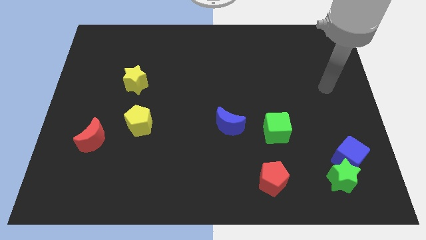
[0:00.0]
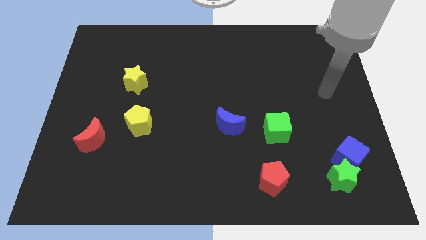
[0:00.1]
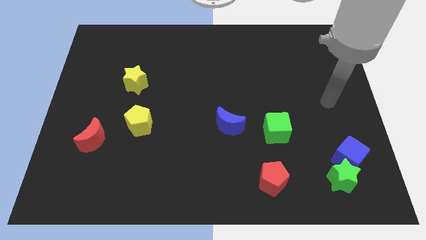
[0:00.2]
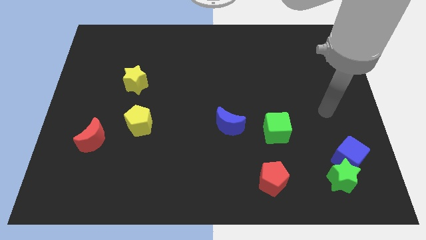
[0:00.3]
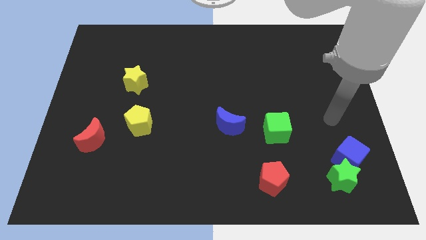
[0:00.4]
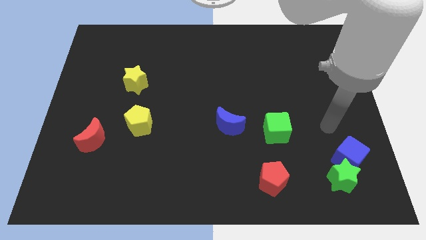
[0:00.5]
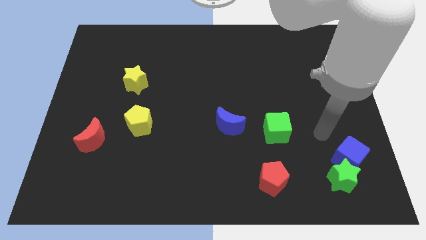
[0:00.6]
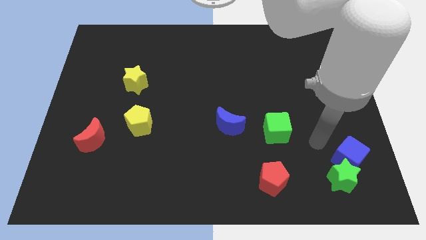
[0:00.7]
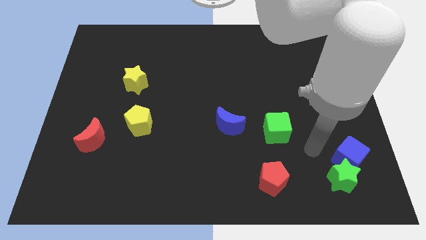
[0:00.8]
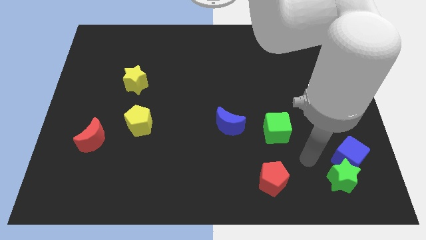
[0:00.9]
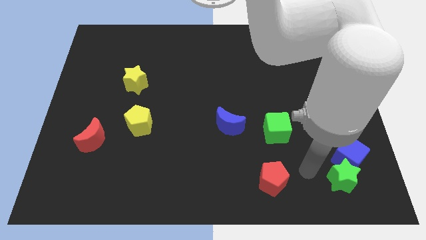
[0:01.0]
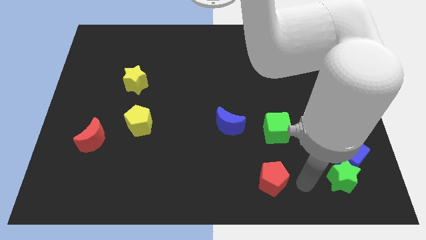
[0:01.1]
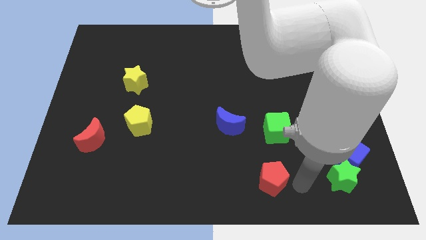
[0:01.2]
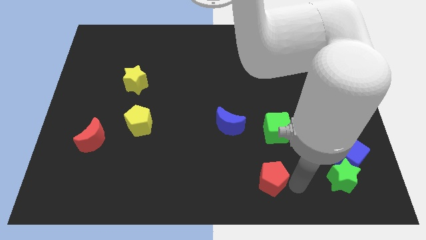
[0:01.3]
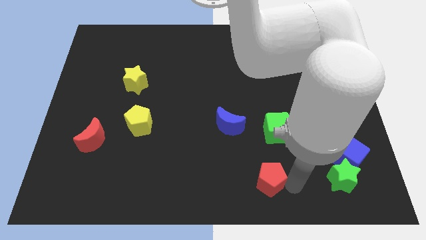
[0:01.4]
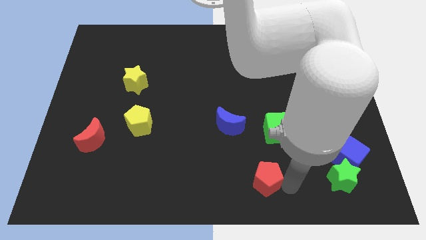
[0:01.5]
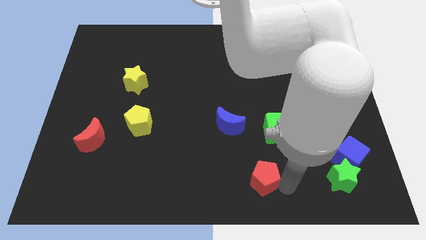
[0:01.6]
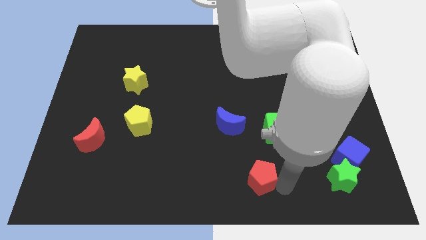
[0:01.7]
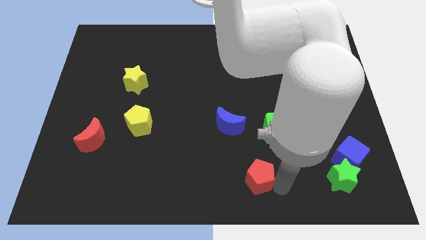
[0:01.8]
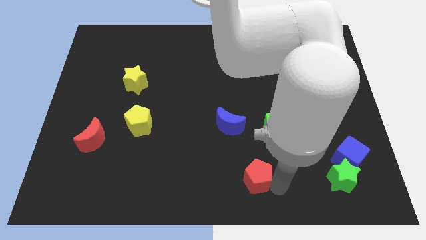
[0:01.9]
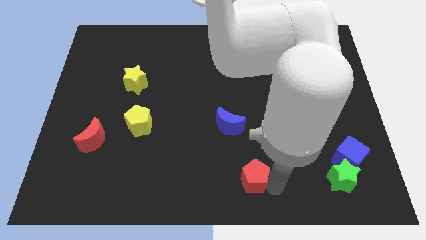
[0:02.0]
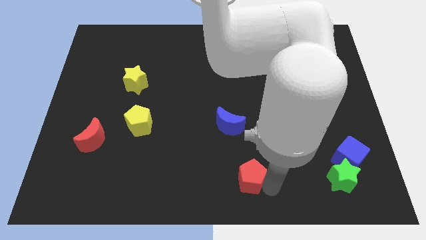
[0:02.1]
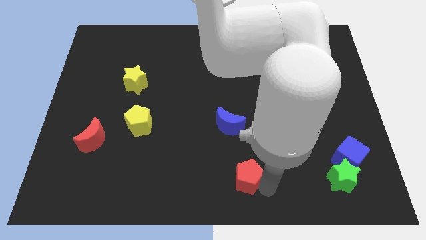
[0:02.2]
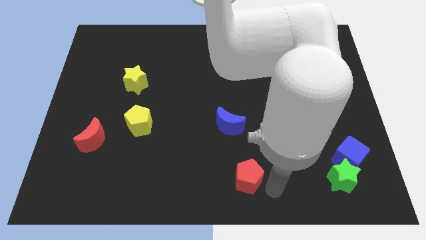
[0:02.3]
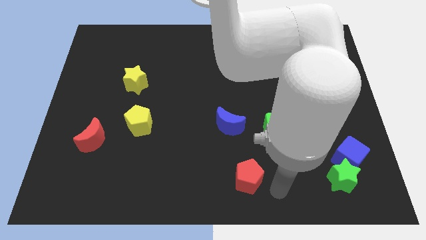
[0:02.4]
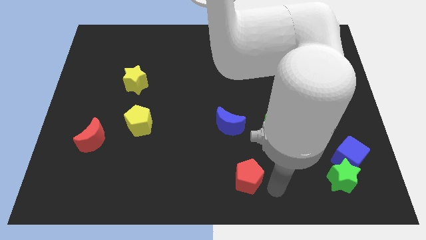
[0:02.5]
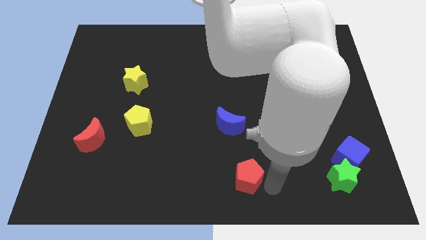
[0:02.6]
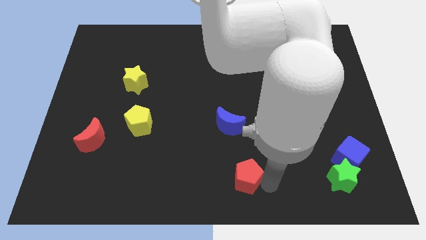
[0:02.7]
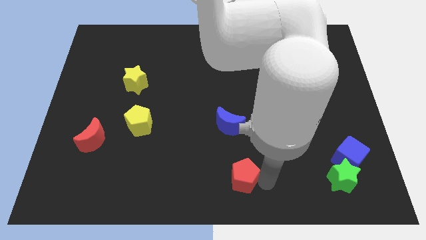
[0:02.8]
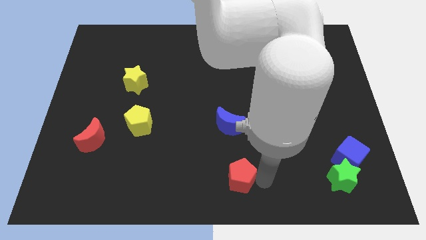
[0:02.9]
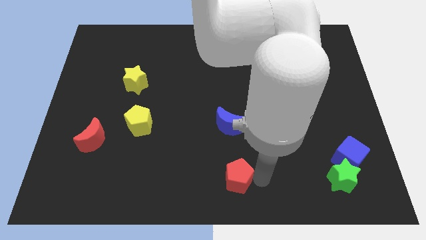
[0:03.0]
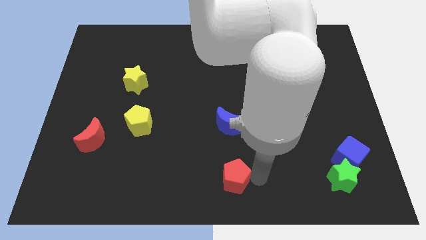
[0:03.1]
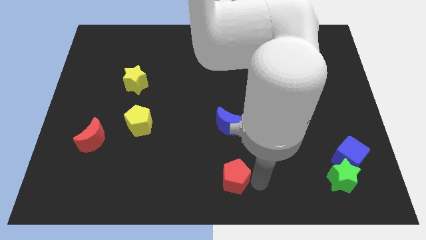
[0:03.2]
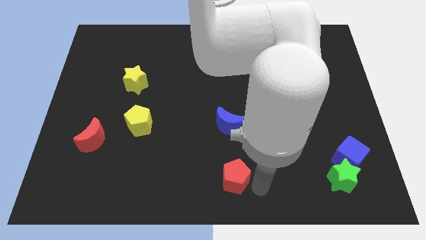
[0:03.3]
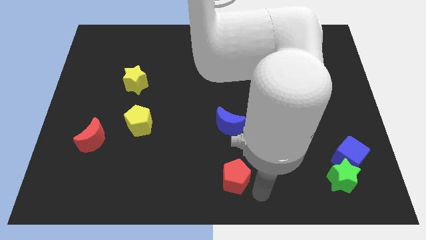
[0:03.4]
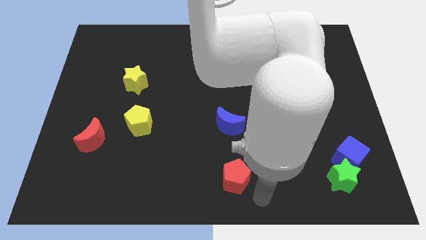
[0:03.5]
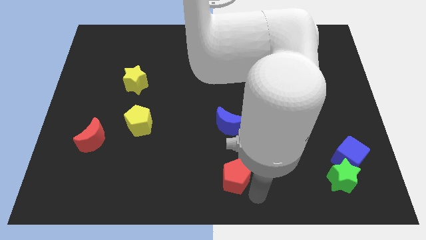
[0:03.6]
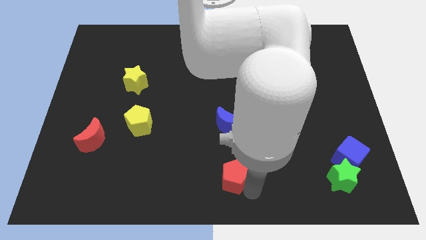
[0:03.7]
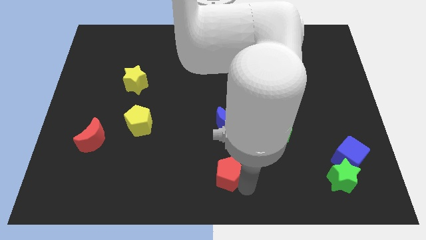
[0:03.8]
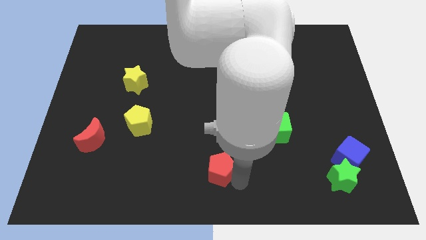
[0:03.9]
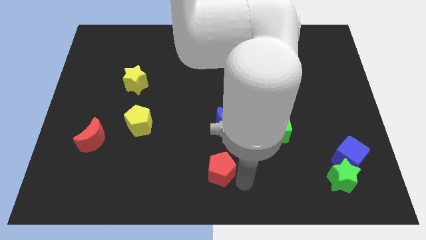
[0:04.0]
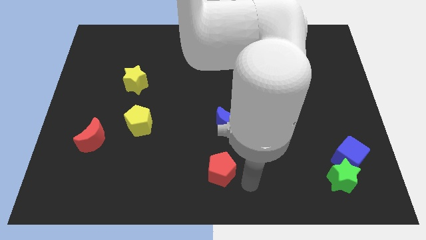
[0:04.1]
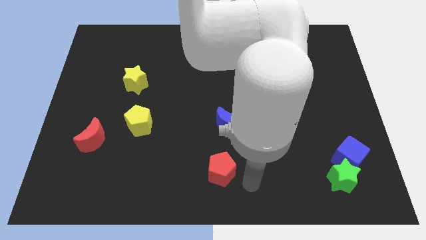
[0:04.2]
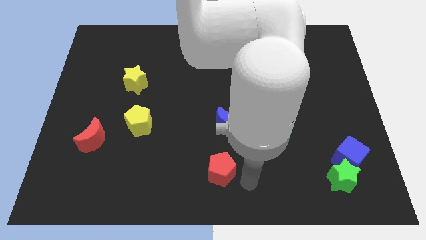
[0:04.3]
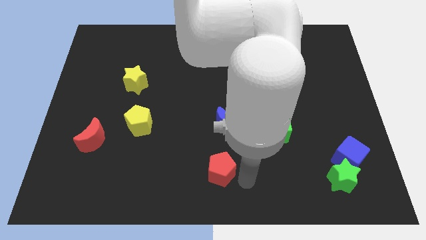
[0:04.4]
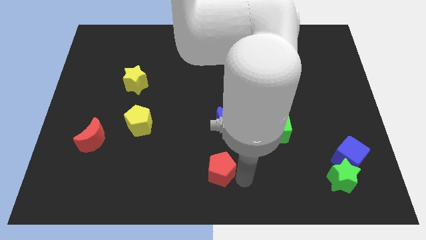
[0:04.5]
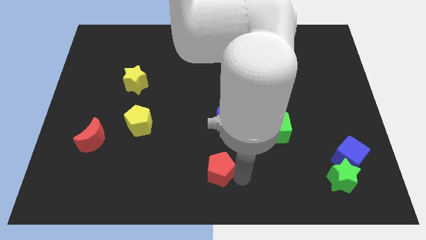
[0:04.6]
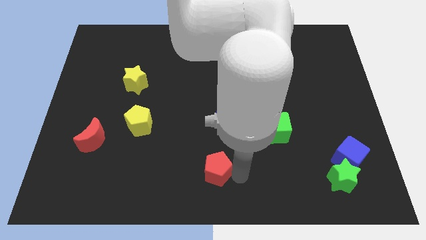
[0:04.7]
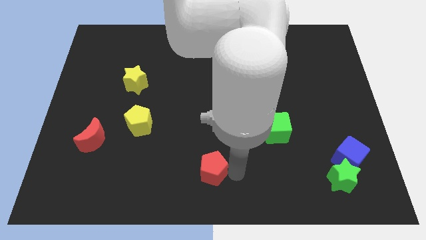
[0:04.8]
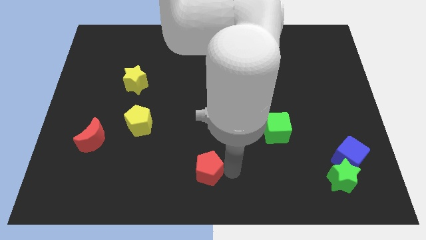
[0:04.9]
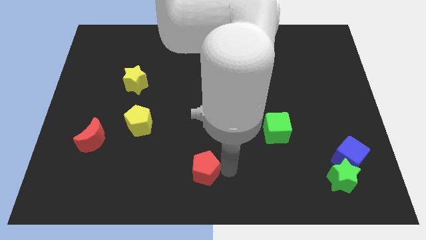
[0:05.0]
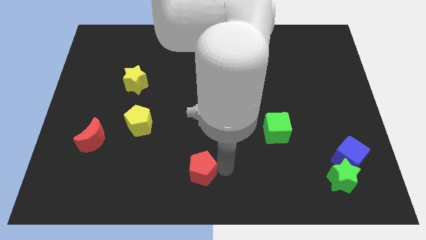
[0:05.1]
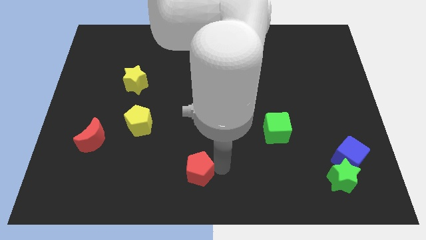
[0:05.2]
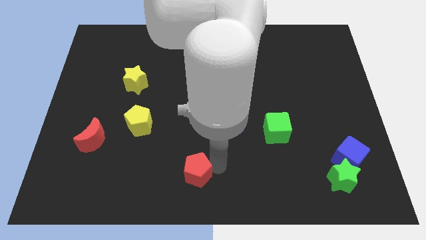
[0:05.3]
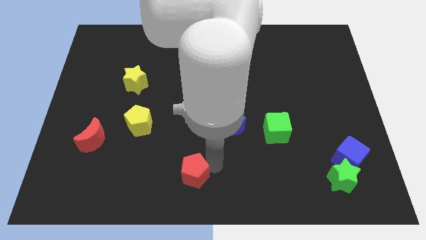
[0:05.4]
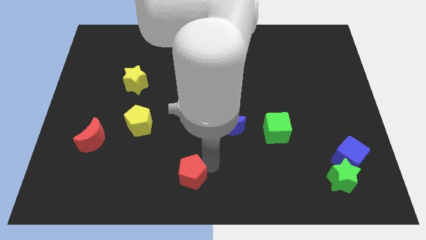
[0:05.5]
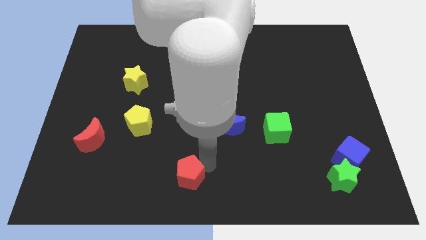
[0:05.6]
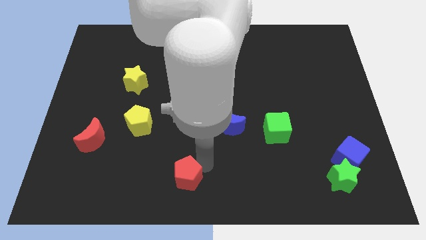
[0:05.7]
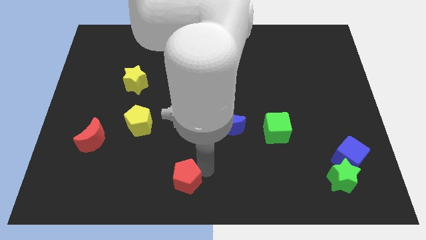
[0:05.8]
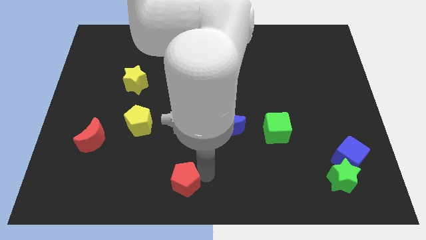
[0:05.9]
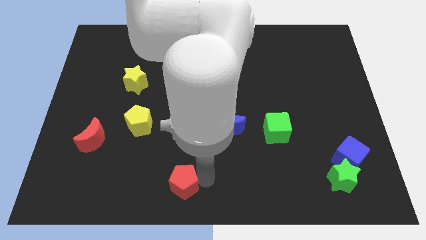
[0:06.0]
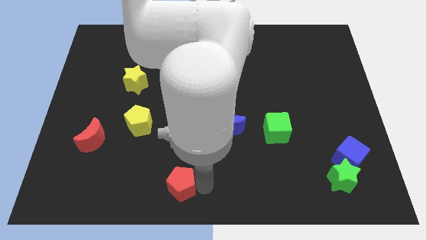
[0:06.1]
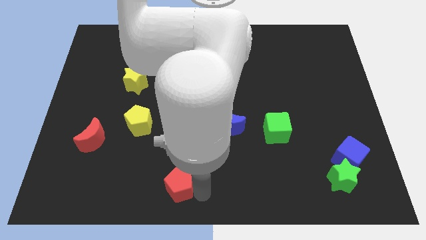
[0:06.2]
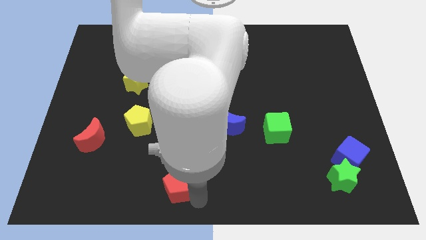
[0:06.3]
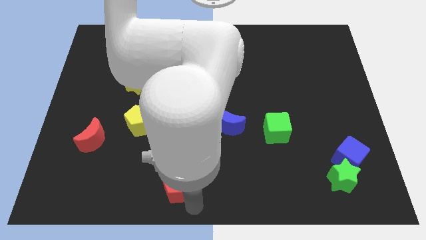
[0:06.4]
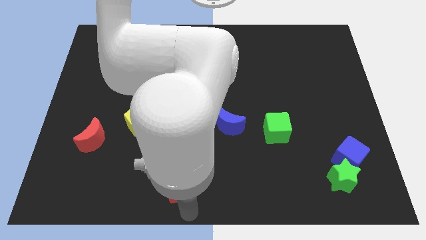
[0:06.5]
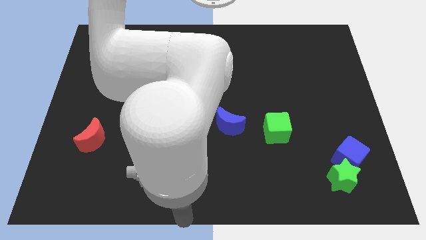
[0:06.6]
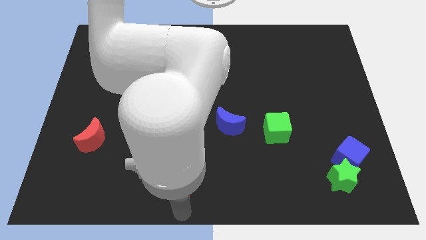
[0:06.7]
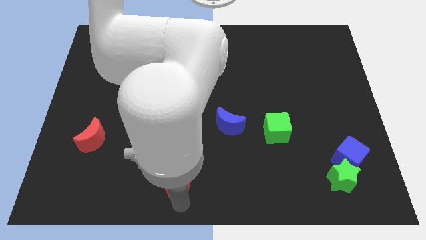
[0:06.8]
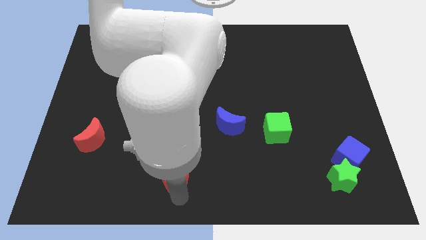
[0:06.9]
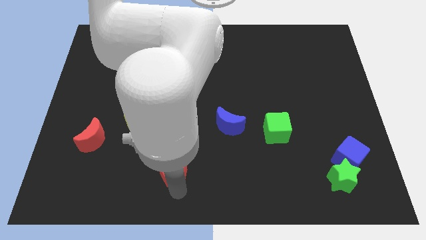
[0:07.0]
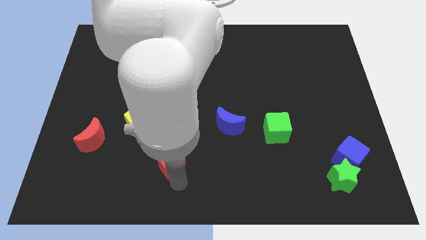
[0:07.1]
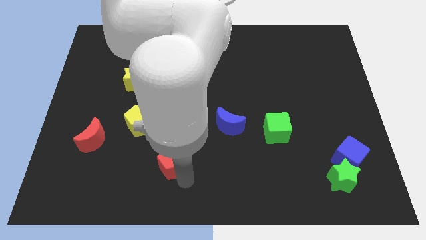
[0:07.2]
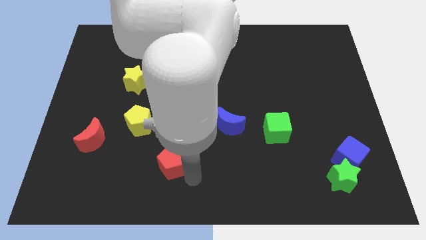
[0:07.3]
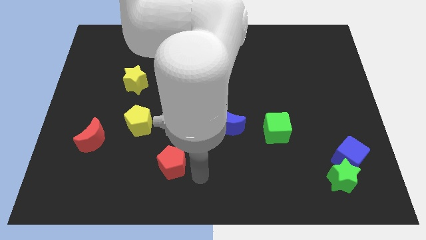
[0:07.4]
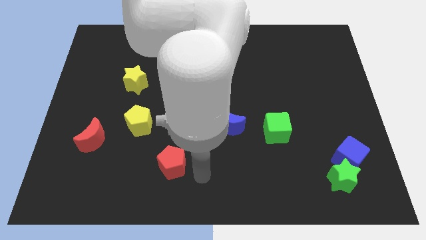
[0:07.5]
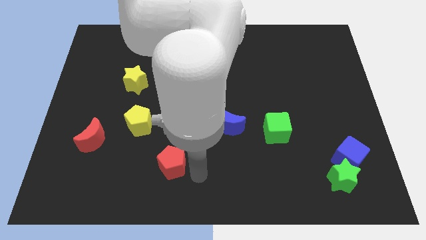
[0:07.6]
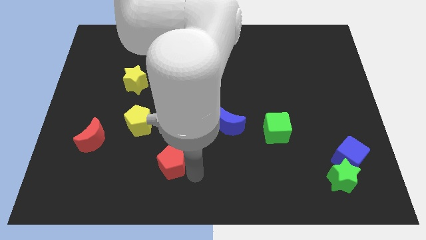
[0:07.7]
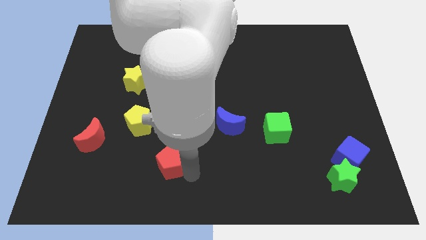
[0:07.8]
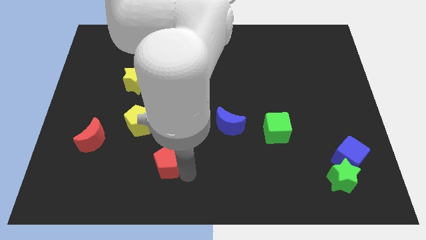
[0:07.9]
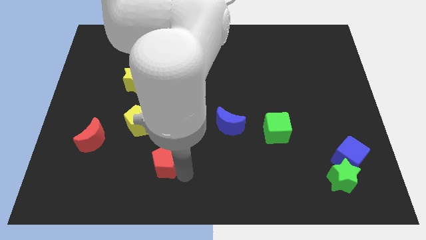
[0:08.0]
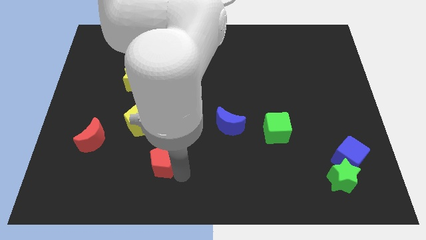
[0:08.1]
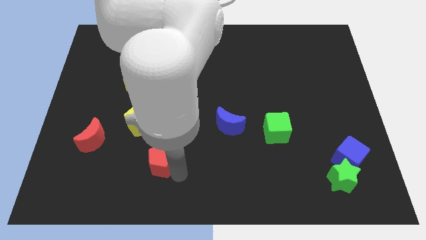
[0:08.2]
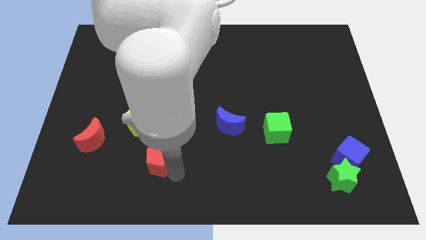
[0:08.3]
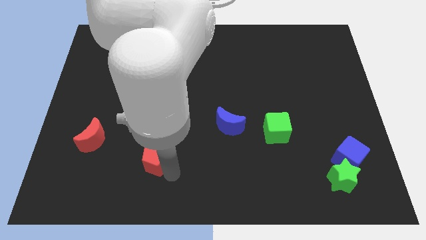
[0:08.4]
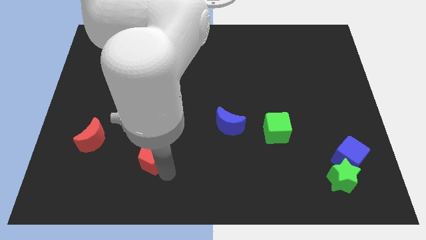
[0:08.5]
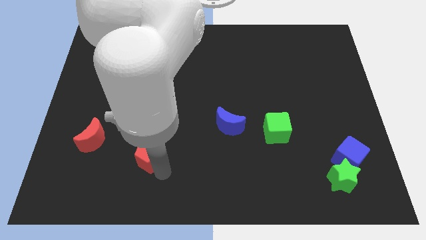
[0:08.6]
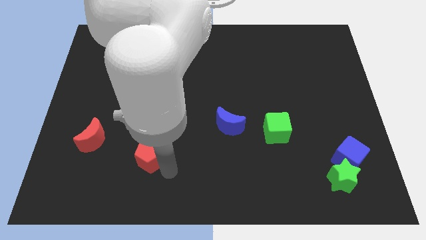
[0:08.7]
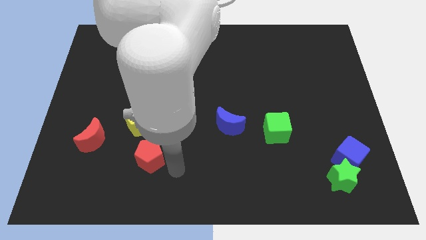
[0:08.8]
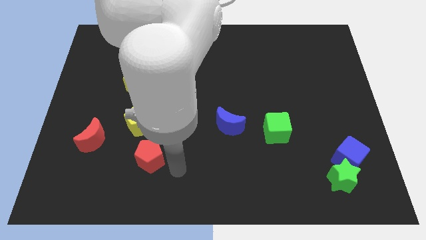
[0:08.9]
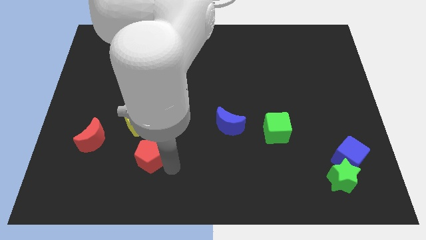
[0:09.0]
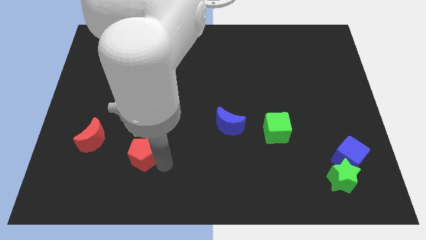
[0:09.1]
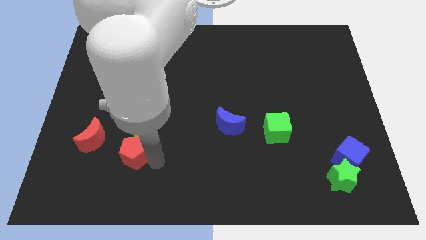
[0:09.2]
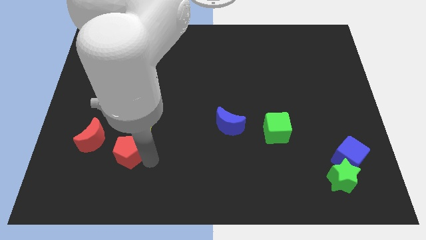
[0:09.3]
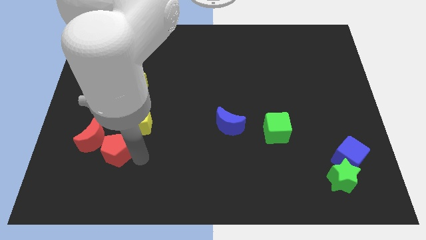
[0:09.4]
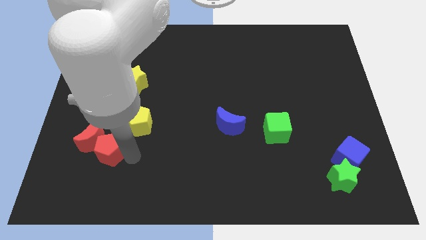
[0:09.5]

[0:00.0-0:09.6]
put the red pentagon next to the red moon
